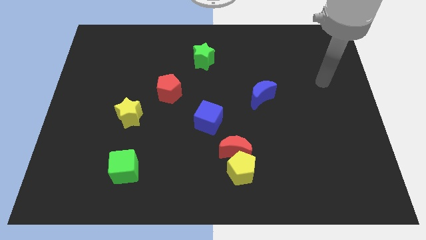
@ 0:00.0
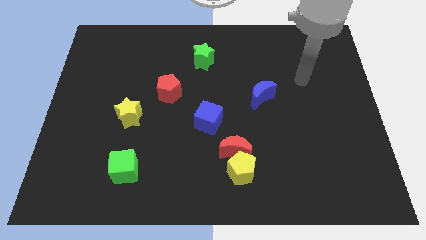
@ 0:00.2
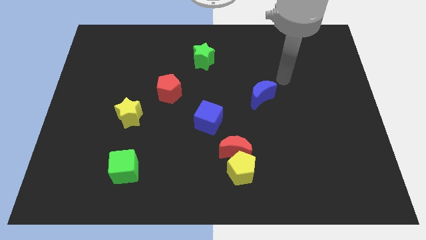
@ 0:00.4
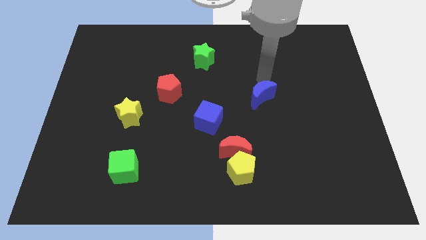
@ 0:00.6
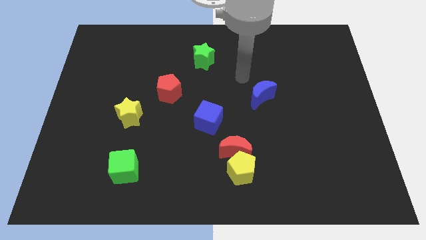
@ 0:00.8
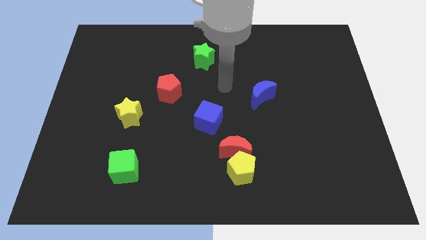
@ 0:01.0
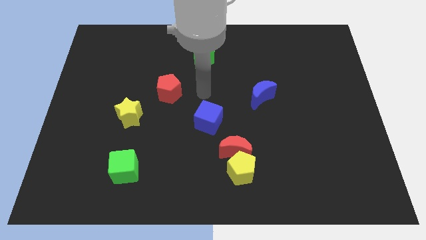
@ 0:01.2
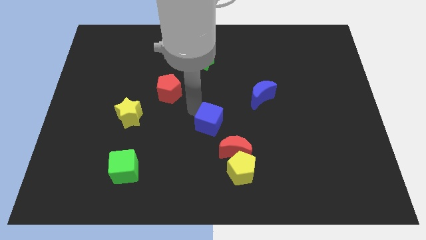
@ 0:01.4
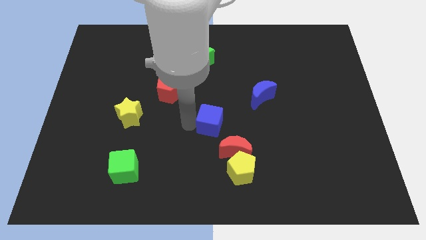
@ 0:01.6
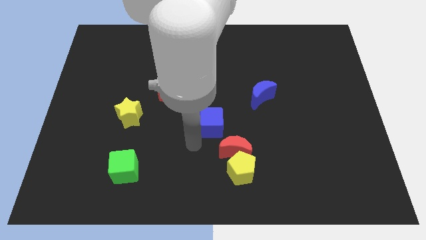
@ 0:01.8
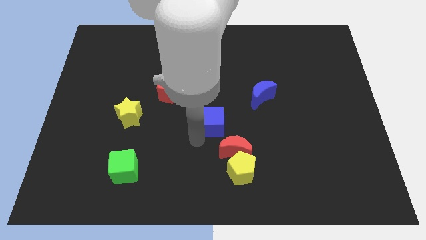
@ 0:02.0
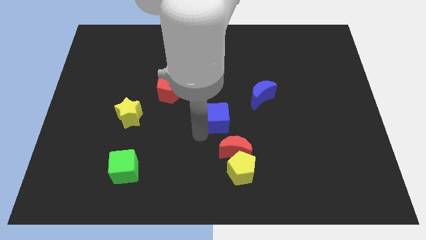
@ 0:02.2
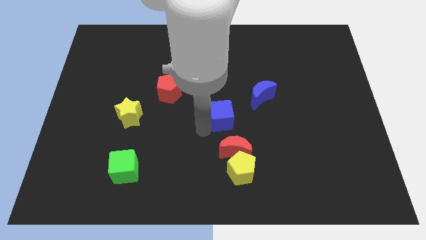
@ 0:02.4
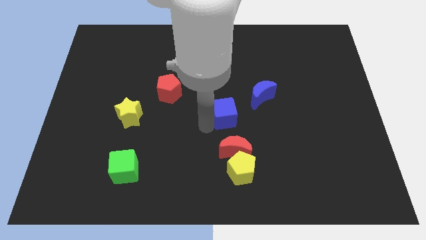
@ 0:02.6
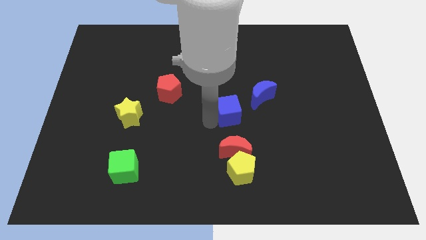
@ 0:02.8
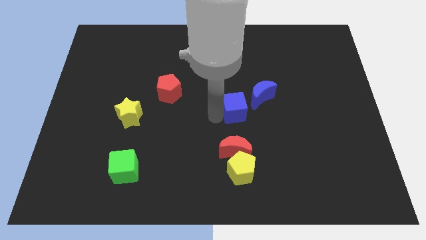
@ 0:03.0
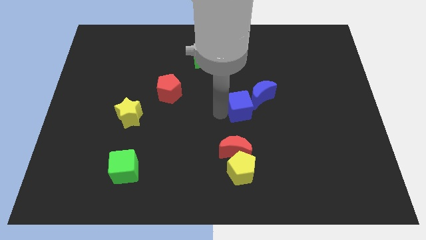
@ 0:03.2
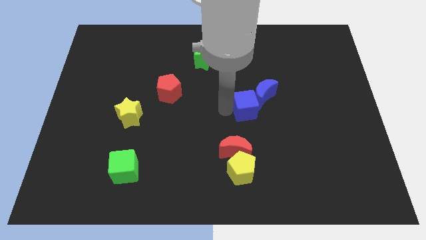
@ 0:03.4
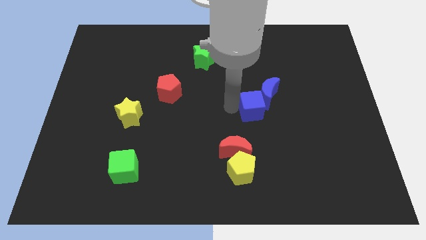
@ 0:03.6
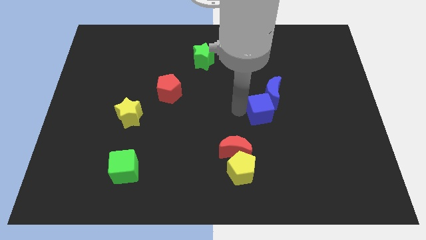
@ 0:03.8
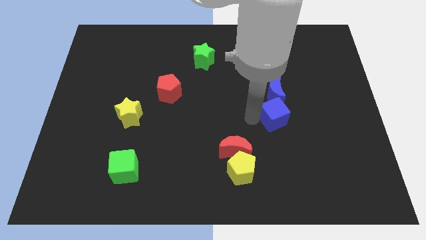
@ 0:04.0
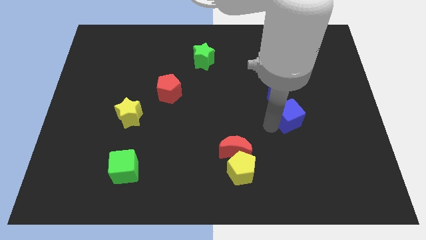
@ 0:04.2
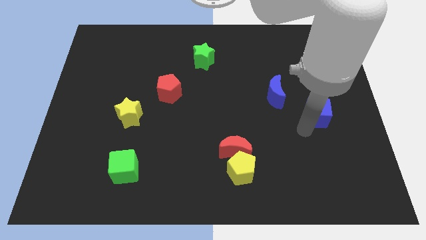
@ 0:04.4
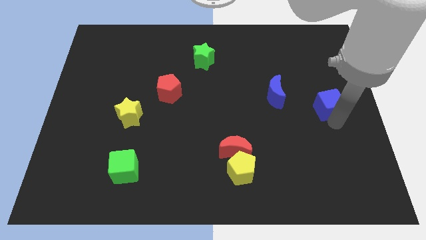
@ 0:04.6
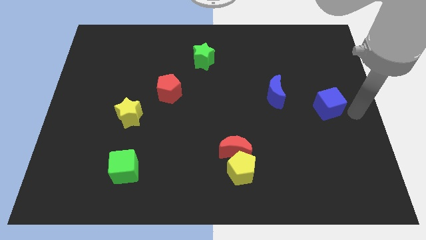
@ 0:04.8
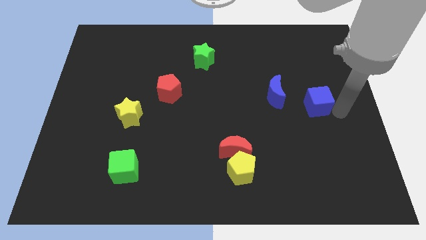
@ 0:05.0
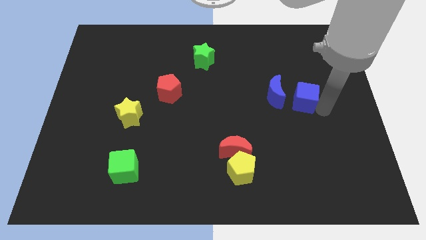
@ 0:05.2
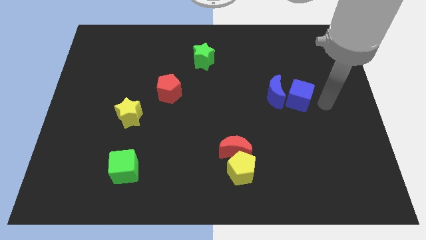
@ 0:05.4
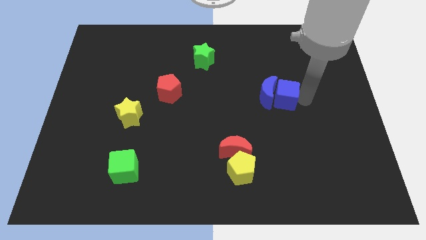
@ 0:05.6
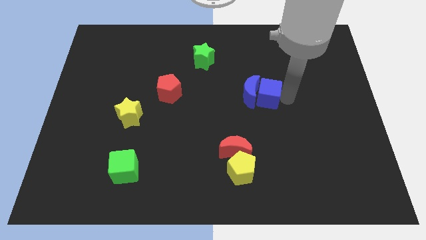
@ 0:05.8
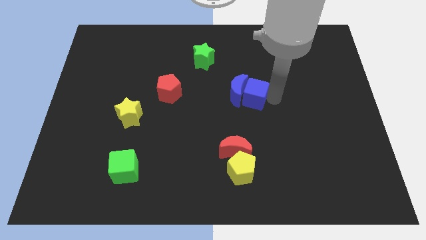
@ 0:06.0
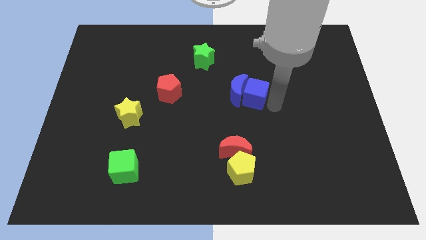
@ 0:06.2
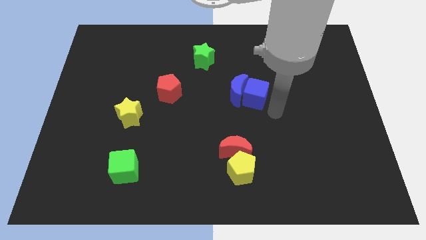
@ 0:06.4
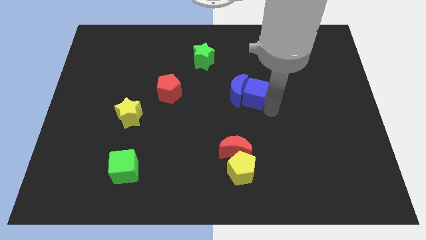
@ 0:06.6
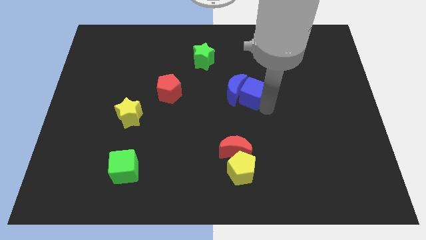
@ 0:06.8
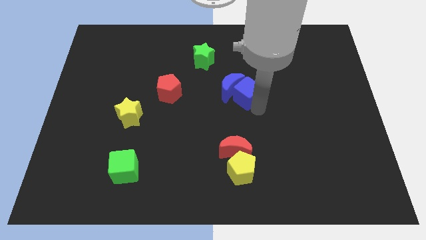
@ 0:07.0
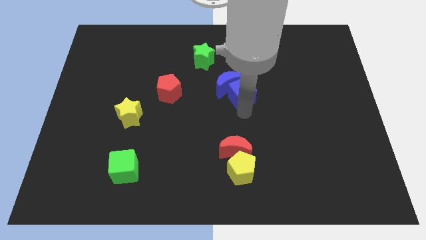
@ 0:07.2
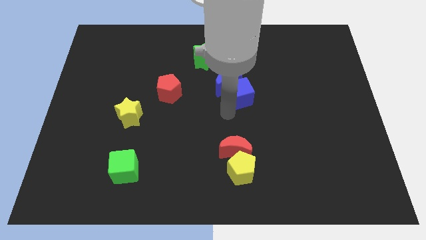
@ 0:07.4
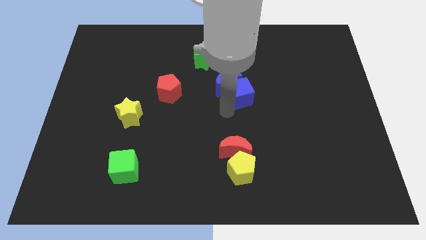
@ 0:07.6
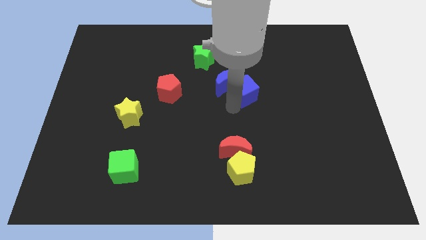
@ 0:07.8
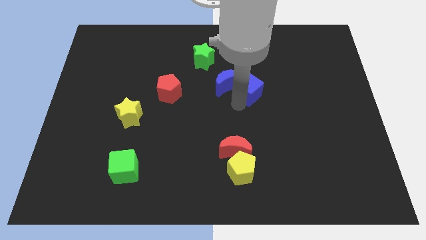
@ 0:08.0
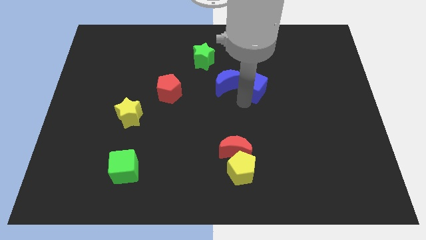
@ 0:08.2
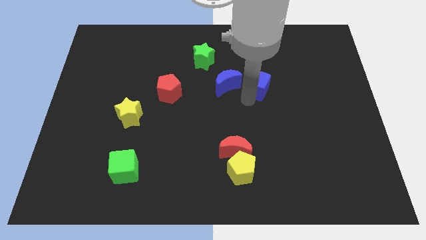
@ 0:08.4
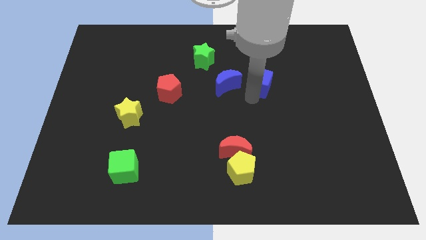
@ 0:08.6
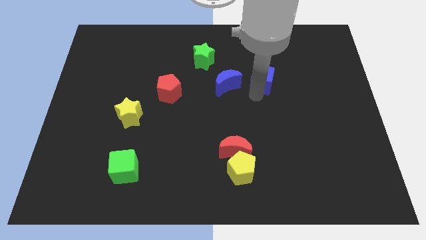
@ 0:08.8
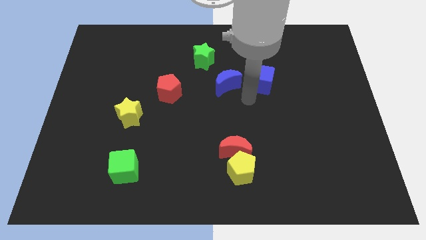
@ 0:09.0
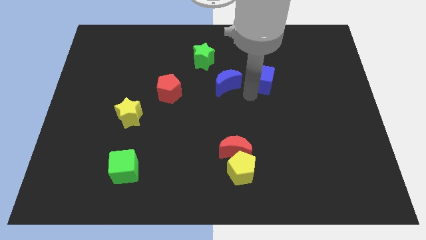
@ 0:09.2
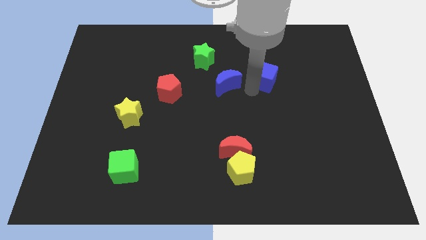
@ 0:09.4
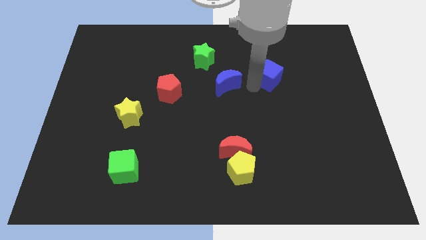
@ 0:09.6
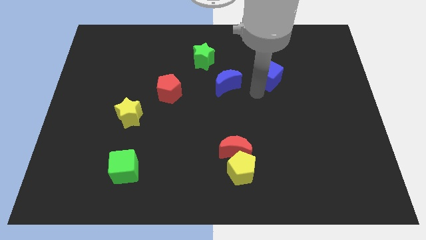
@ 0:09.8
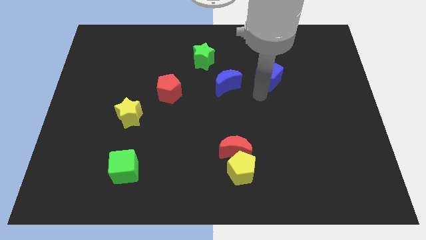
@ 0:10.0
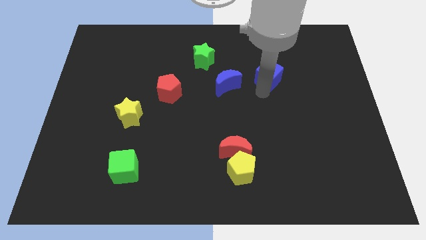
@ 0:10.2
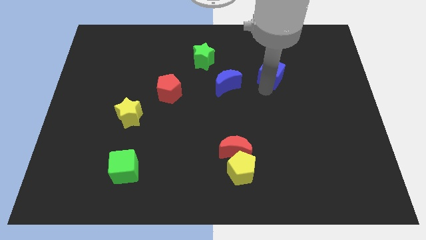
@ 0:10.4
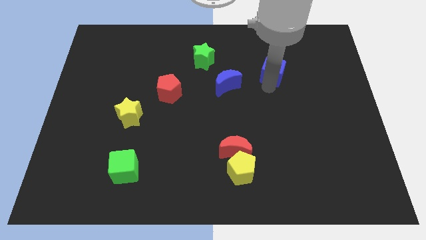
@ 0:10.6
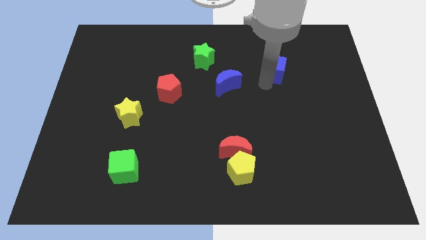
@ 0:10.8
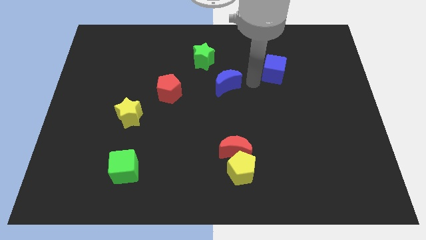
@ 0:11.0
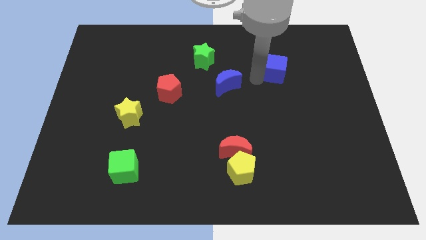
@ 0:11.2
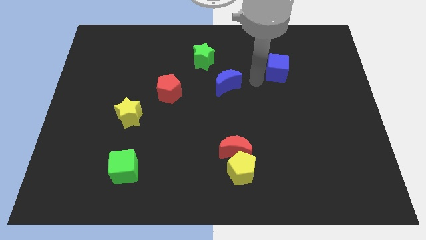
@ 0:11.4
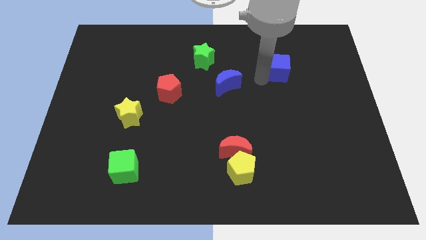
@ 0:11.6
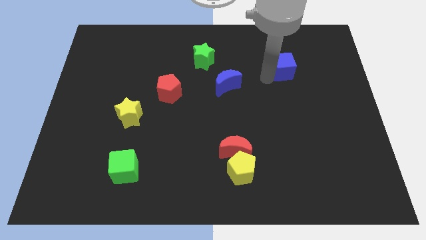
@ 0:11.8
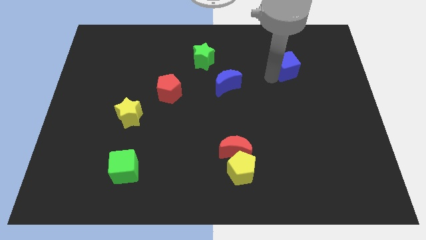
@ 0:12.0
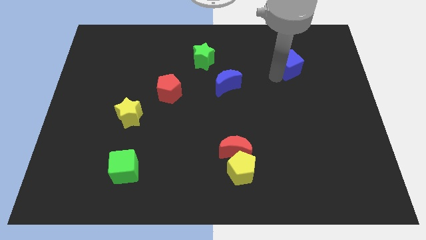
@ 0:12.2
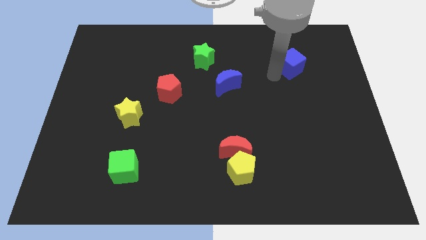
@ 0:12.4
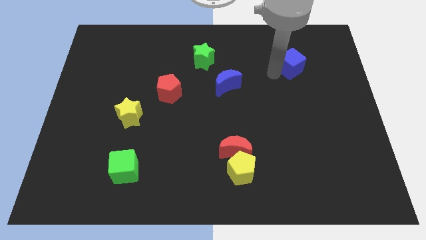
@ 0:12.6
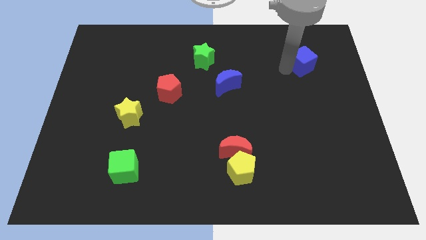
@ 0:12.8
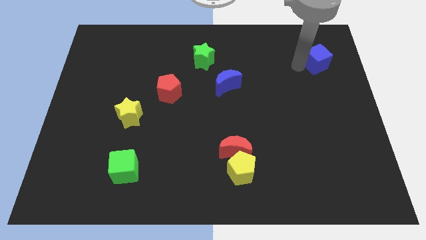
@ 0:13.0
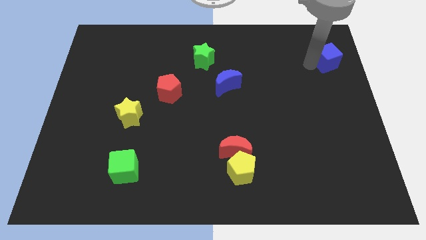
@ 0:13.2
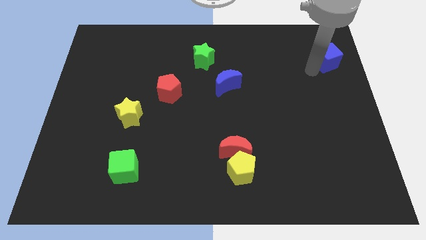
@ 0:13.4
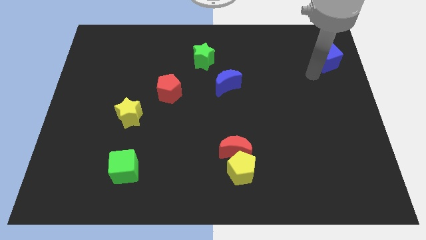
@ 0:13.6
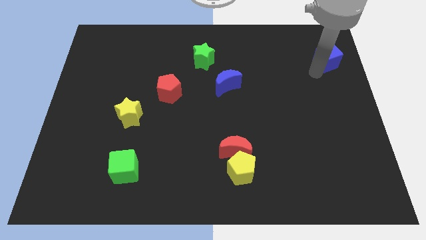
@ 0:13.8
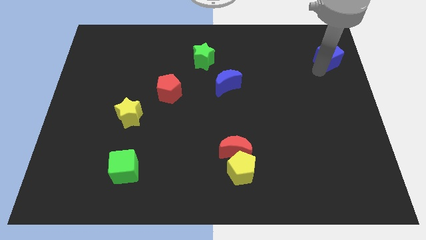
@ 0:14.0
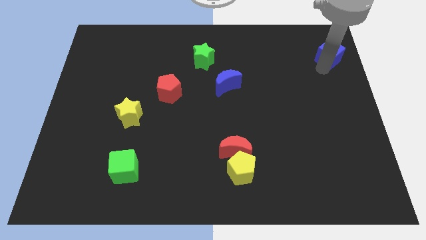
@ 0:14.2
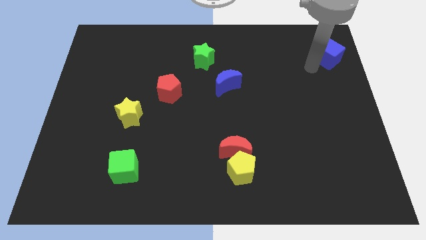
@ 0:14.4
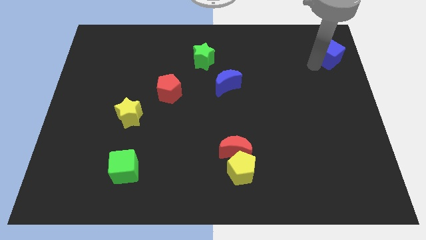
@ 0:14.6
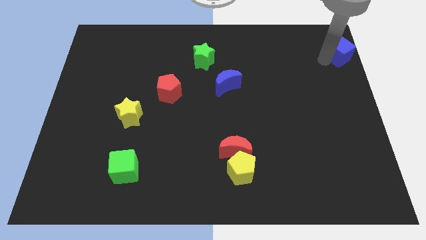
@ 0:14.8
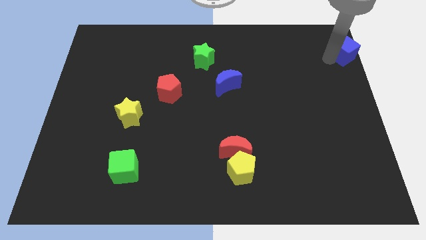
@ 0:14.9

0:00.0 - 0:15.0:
put the blue cube to the top right
